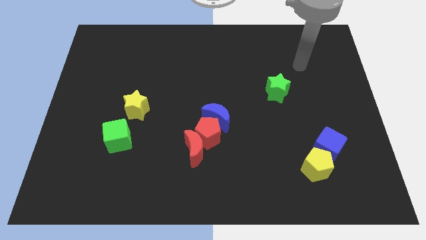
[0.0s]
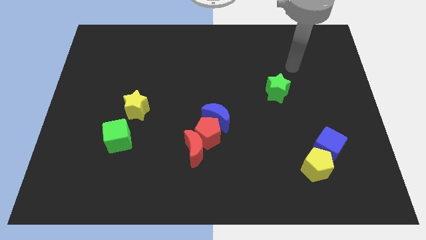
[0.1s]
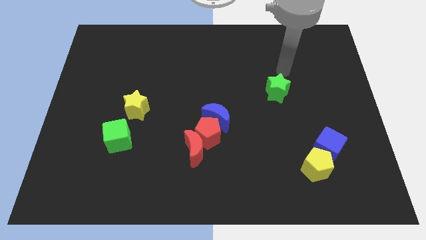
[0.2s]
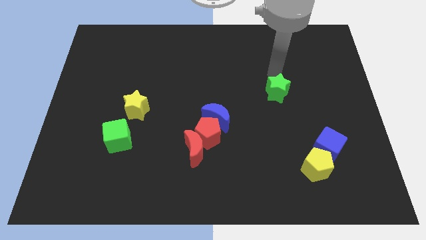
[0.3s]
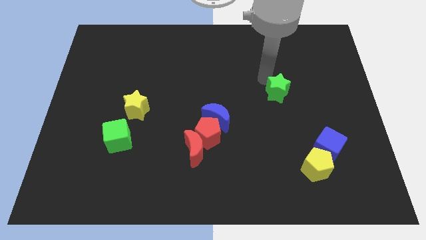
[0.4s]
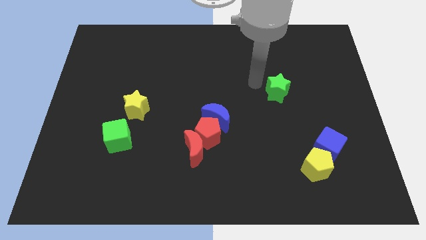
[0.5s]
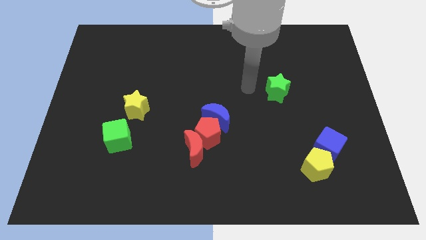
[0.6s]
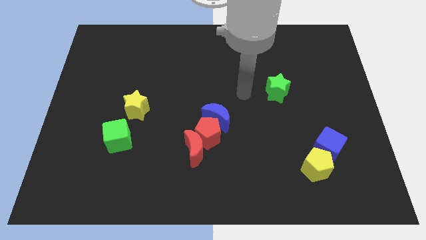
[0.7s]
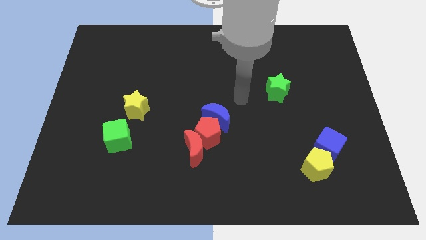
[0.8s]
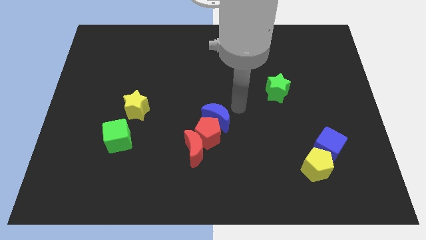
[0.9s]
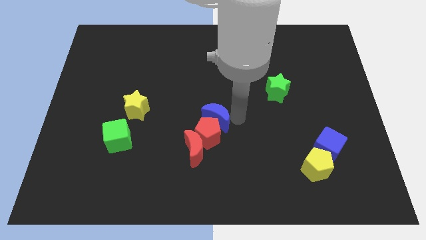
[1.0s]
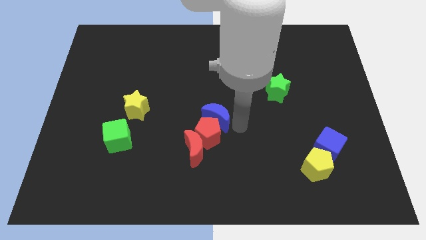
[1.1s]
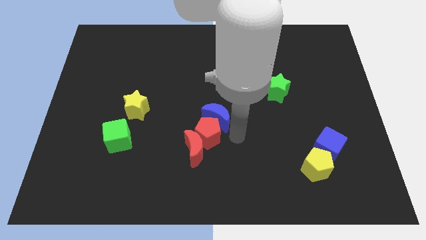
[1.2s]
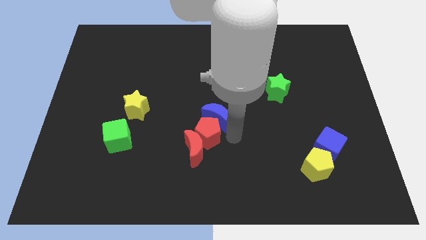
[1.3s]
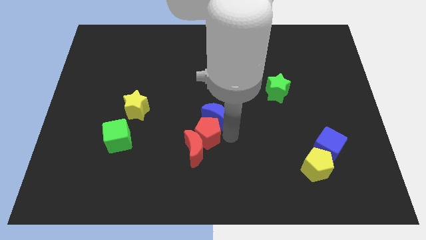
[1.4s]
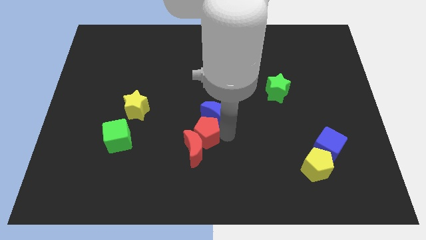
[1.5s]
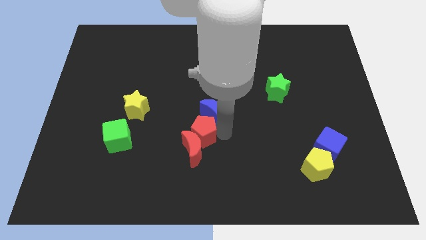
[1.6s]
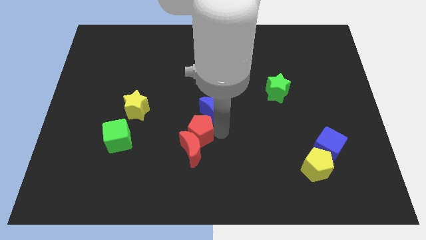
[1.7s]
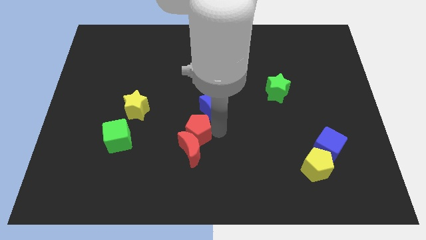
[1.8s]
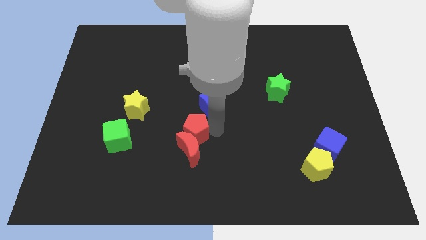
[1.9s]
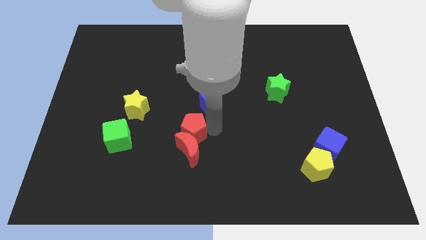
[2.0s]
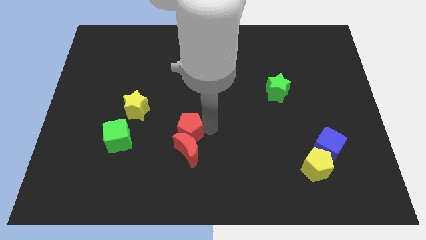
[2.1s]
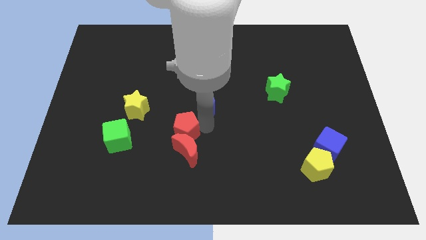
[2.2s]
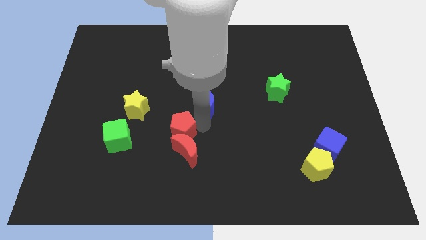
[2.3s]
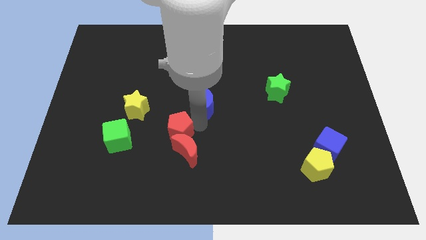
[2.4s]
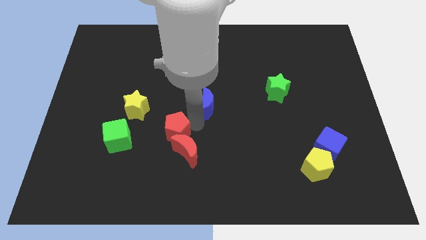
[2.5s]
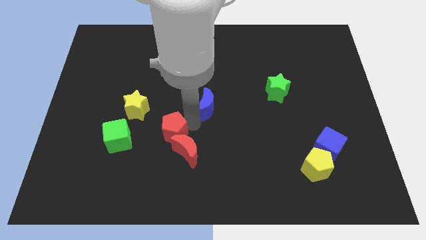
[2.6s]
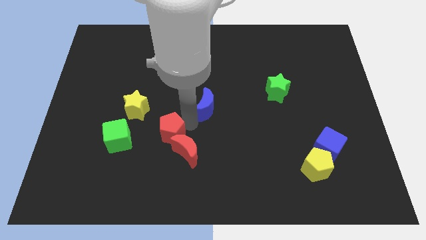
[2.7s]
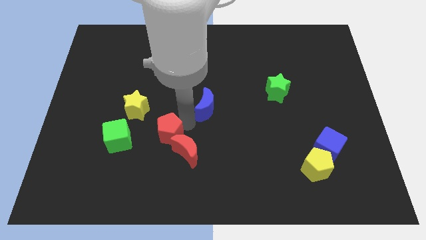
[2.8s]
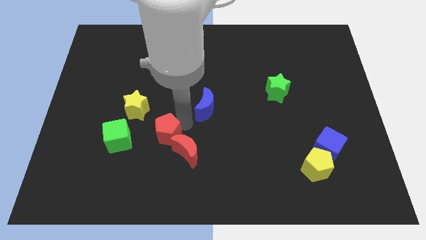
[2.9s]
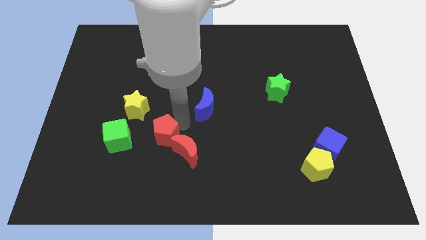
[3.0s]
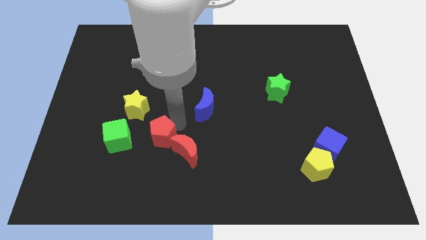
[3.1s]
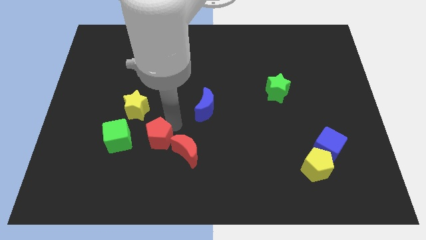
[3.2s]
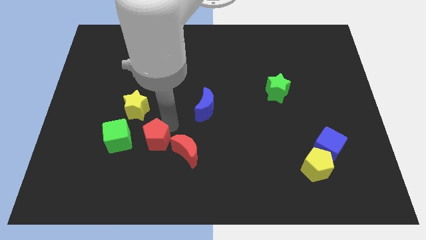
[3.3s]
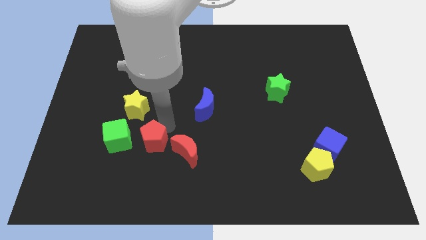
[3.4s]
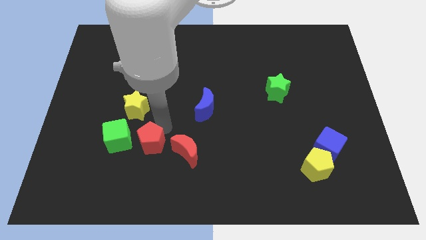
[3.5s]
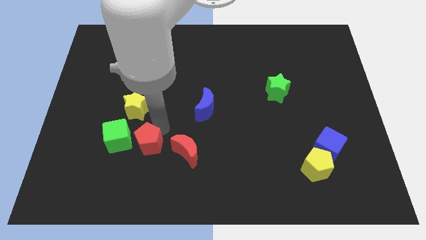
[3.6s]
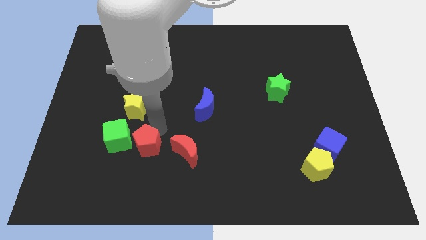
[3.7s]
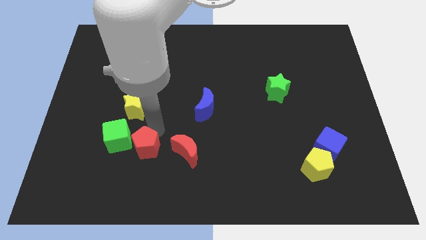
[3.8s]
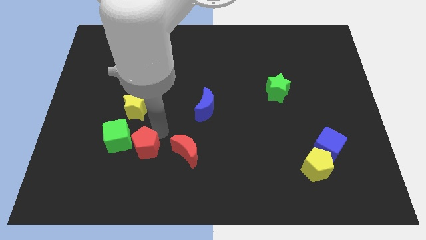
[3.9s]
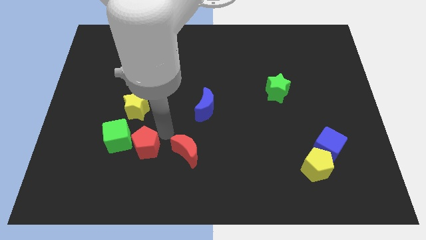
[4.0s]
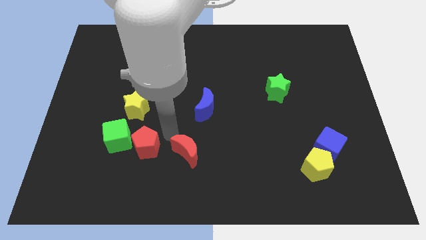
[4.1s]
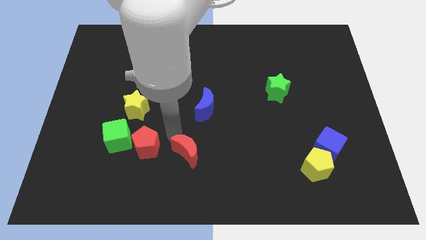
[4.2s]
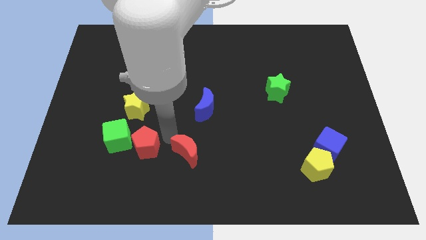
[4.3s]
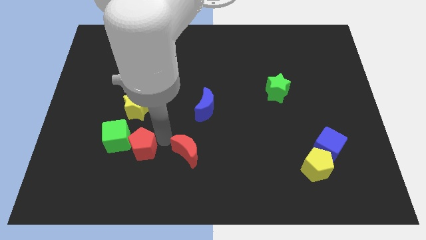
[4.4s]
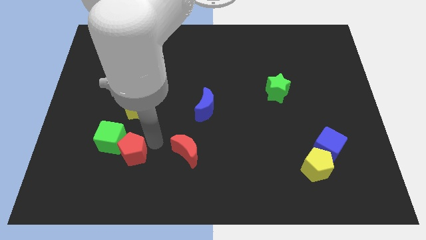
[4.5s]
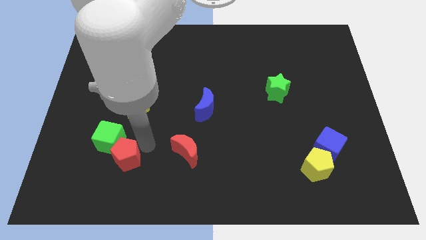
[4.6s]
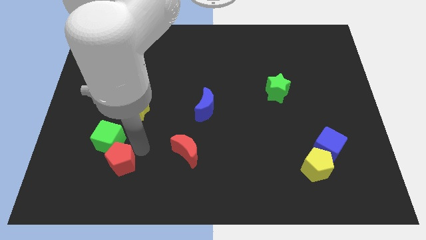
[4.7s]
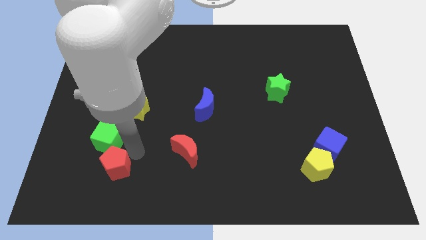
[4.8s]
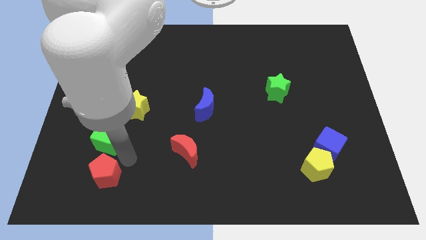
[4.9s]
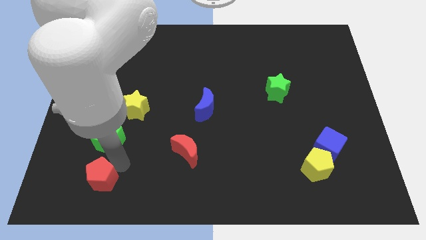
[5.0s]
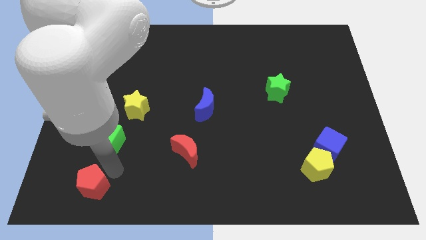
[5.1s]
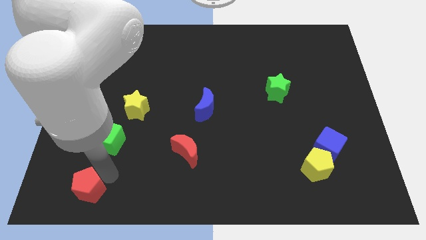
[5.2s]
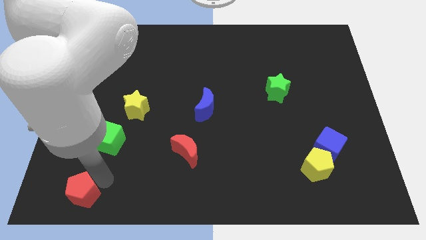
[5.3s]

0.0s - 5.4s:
slide the red pentagon to the bottom left of the board

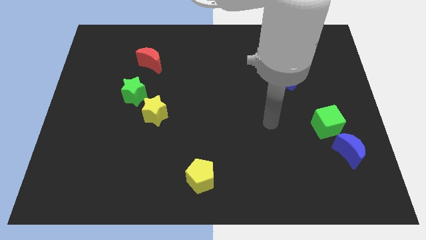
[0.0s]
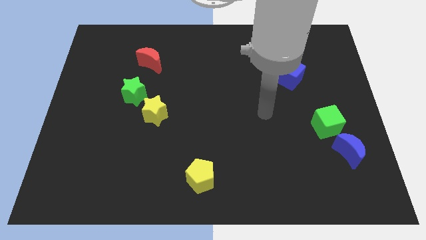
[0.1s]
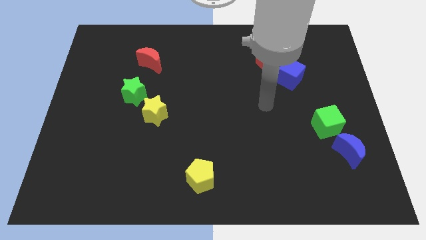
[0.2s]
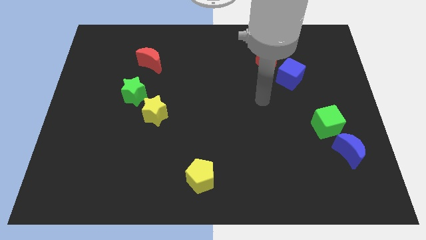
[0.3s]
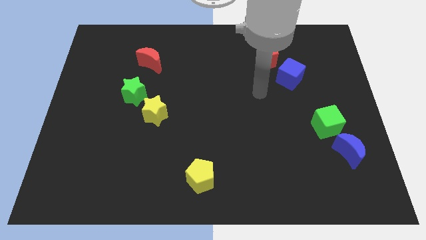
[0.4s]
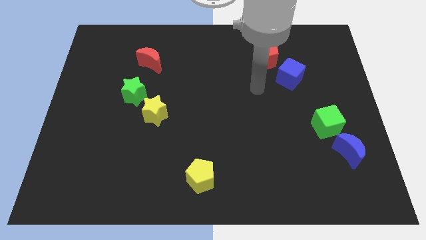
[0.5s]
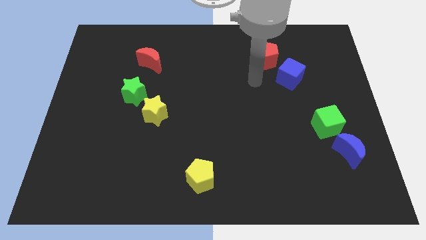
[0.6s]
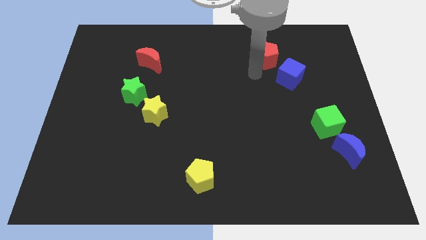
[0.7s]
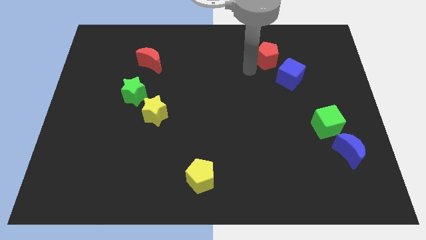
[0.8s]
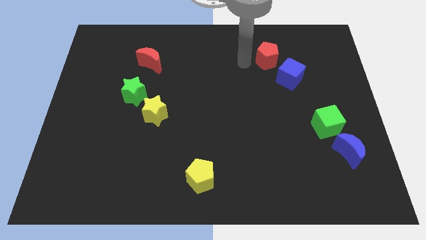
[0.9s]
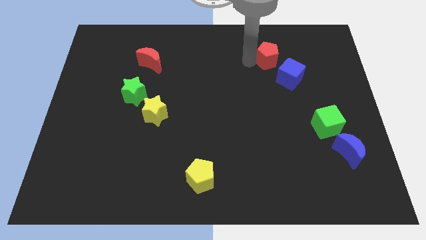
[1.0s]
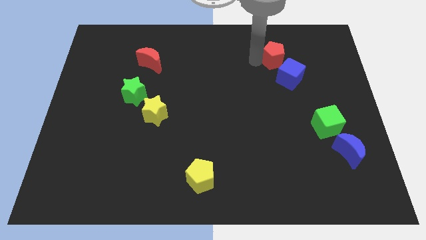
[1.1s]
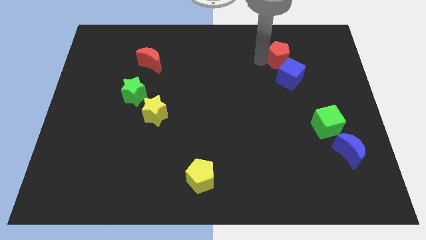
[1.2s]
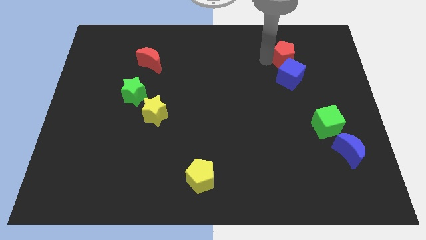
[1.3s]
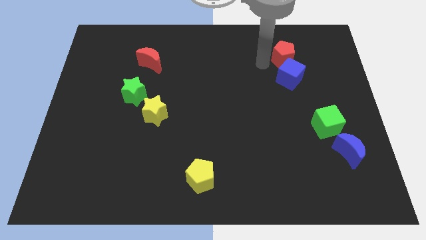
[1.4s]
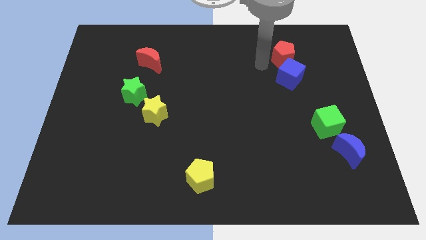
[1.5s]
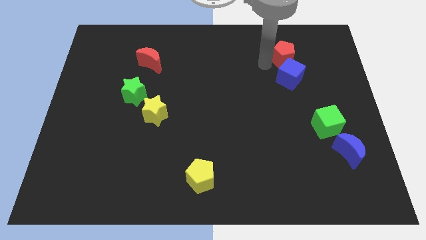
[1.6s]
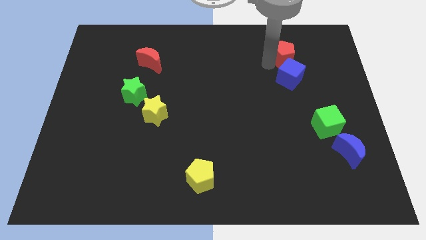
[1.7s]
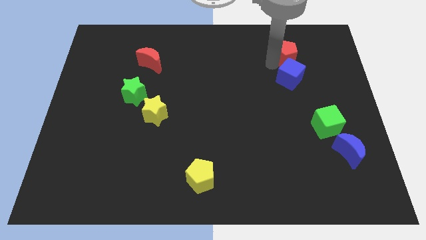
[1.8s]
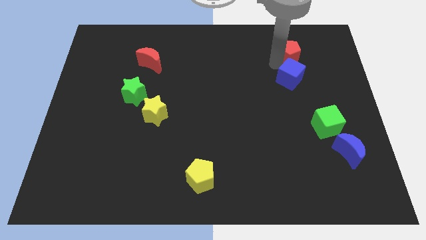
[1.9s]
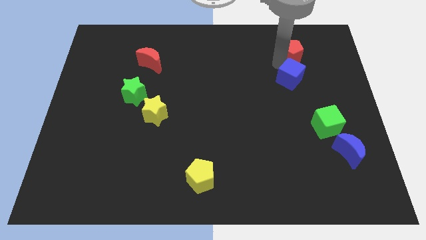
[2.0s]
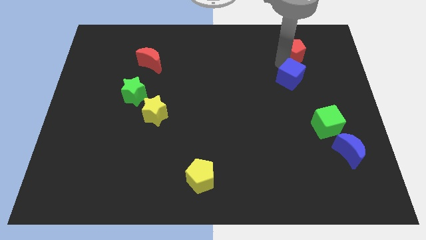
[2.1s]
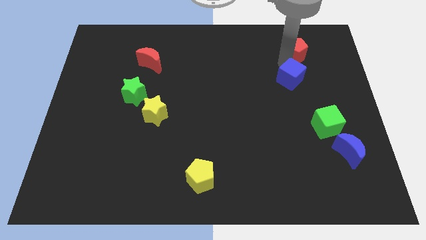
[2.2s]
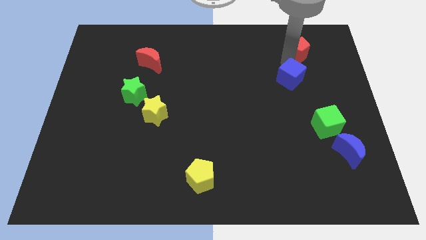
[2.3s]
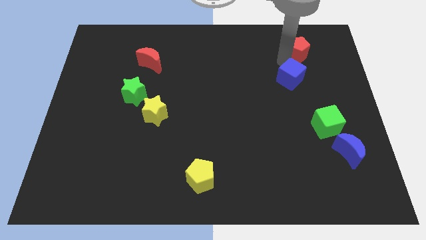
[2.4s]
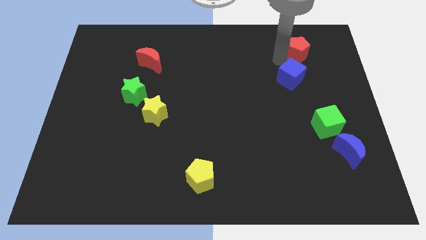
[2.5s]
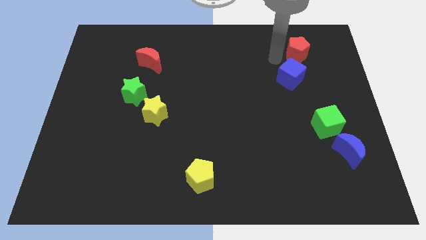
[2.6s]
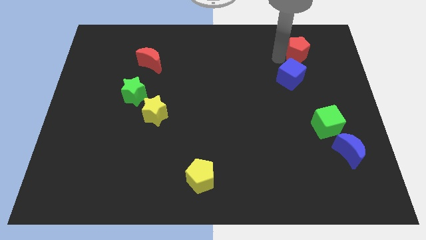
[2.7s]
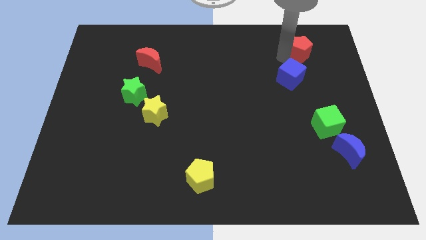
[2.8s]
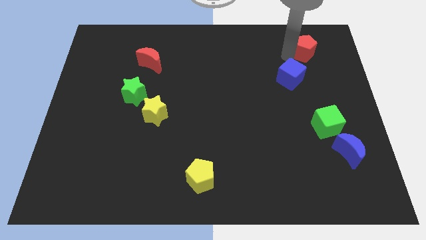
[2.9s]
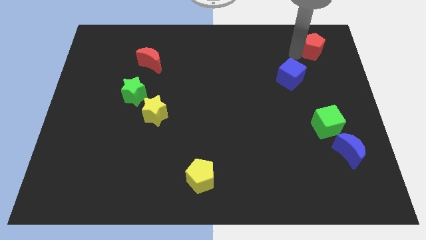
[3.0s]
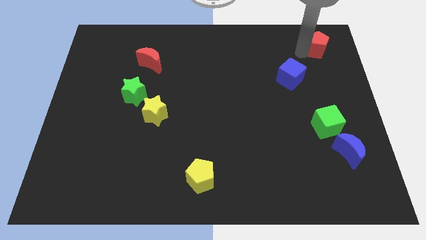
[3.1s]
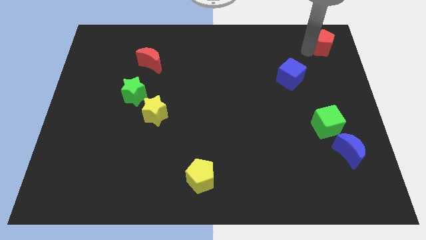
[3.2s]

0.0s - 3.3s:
slide the red pentagon to the upper right corner
